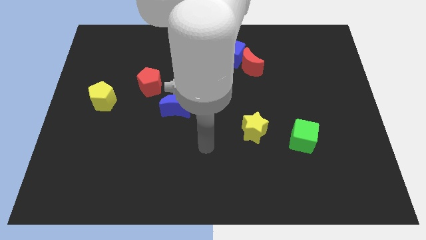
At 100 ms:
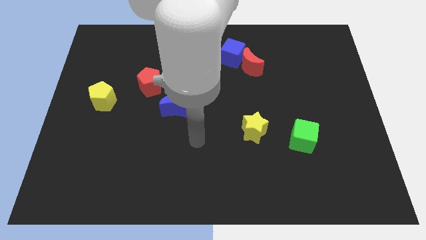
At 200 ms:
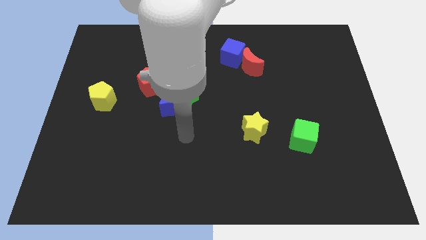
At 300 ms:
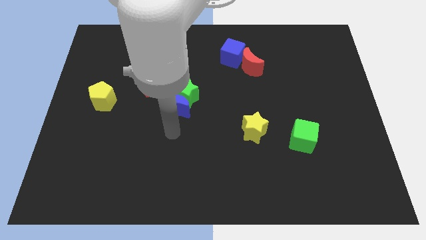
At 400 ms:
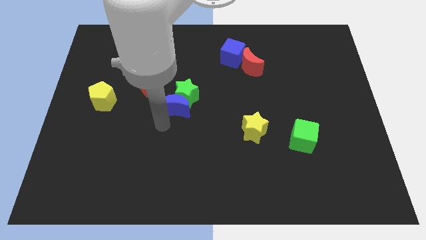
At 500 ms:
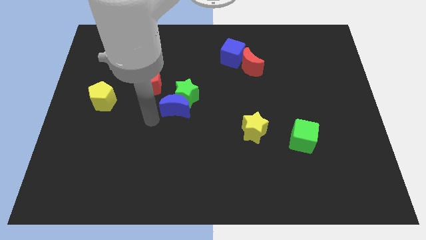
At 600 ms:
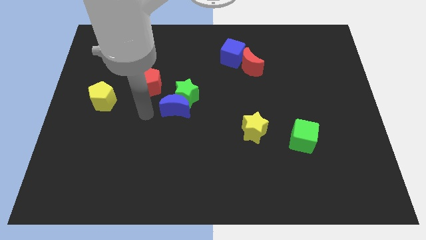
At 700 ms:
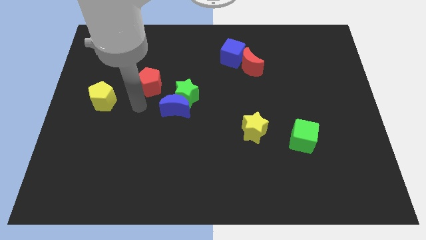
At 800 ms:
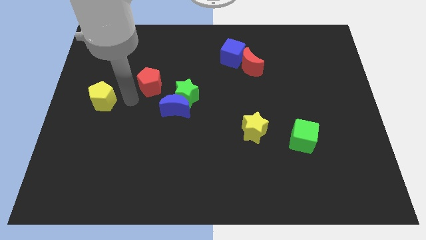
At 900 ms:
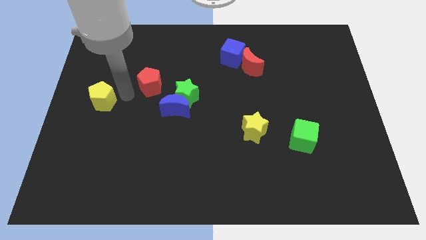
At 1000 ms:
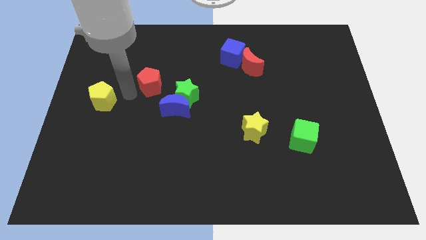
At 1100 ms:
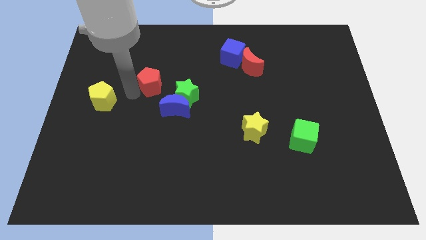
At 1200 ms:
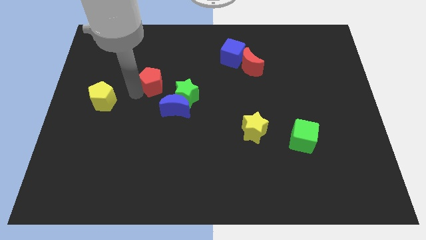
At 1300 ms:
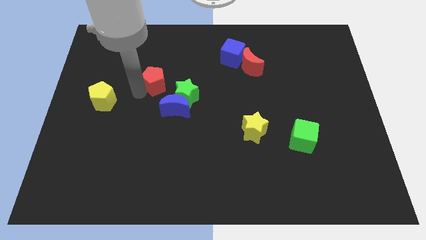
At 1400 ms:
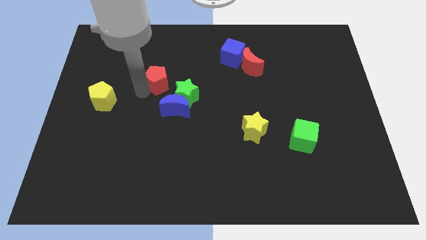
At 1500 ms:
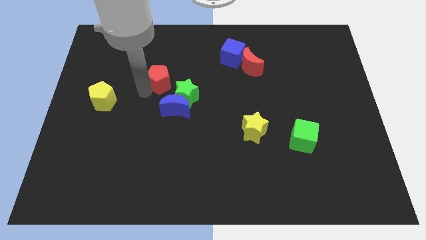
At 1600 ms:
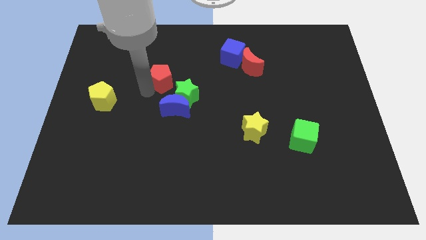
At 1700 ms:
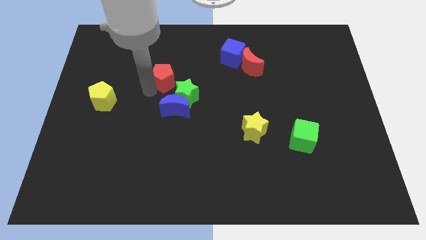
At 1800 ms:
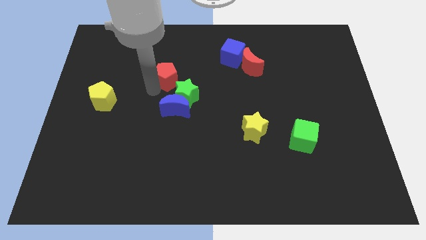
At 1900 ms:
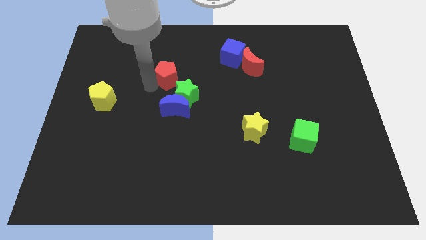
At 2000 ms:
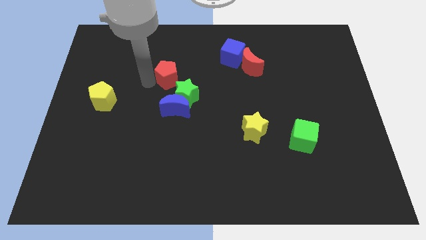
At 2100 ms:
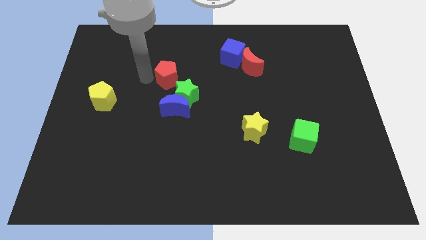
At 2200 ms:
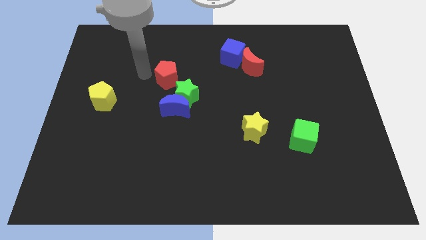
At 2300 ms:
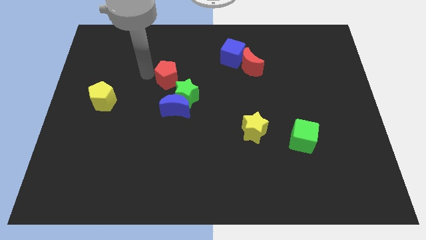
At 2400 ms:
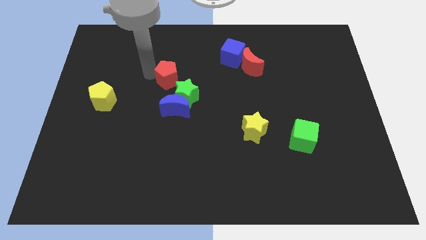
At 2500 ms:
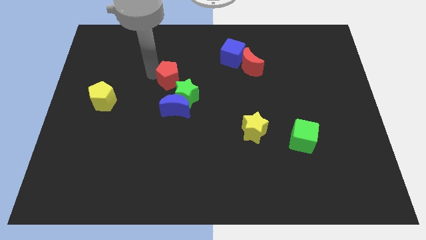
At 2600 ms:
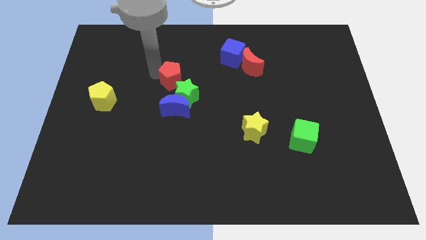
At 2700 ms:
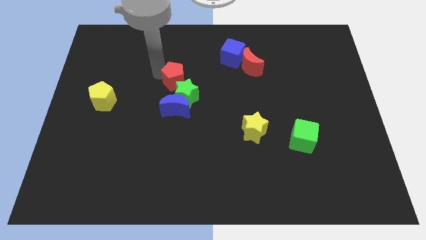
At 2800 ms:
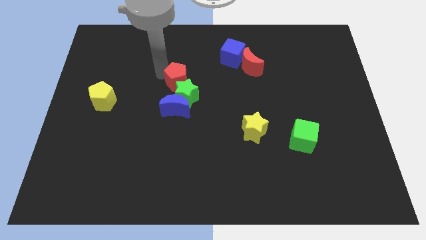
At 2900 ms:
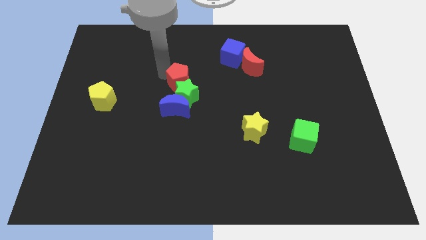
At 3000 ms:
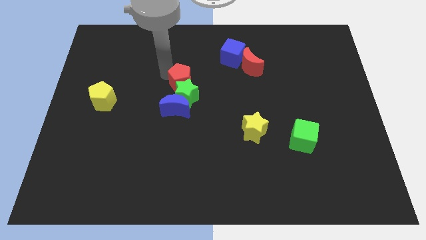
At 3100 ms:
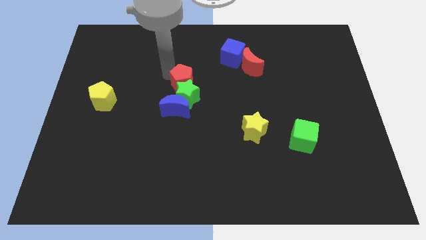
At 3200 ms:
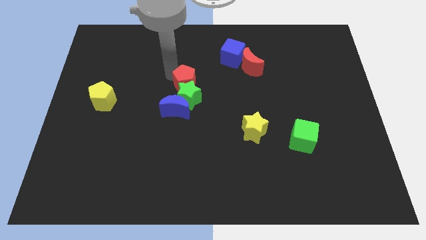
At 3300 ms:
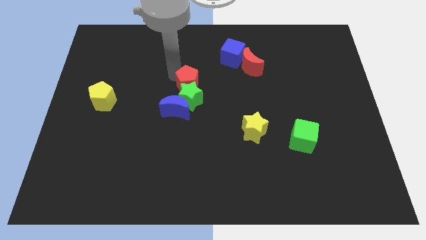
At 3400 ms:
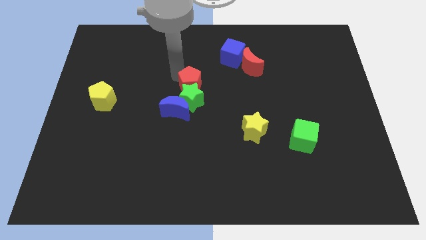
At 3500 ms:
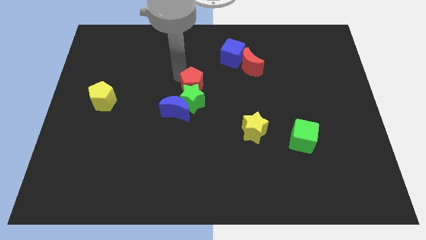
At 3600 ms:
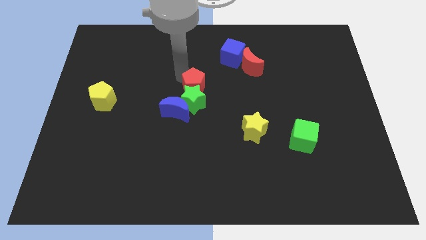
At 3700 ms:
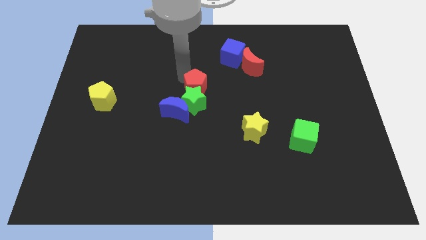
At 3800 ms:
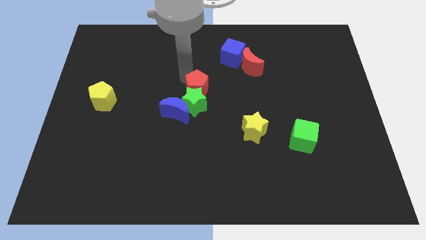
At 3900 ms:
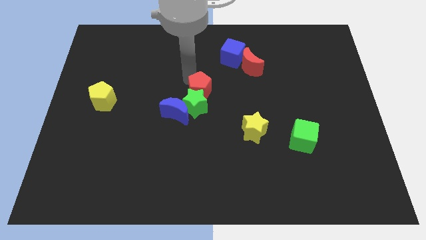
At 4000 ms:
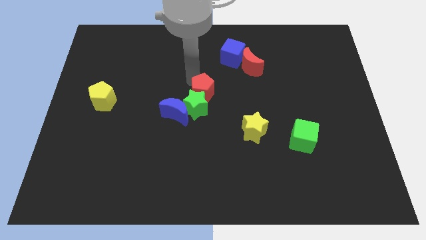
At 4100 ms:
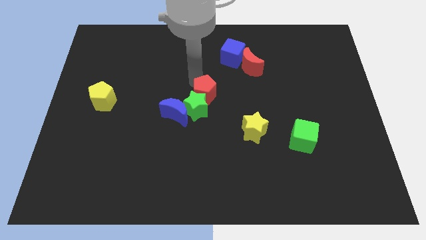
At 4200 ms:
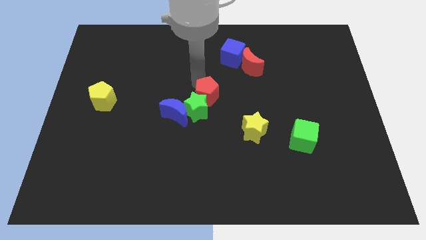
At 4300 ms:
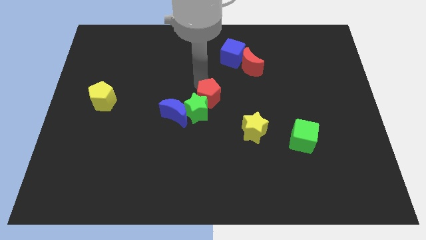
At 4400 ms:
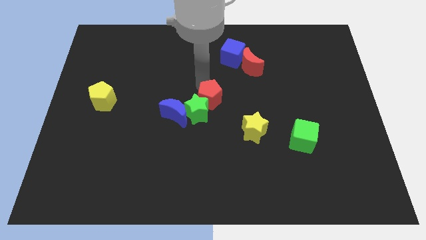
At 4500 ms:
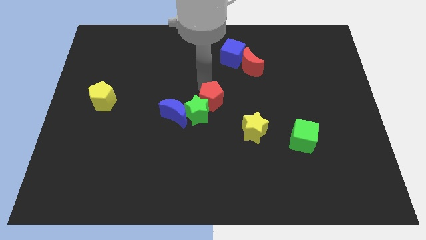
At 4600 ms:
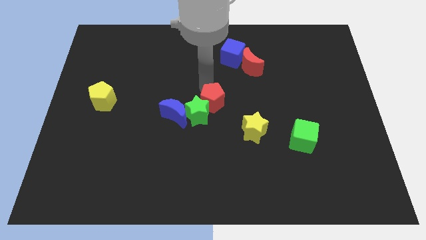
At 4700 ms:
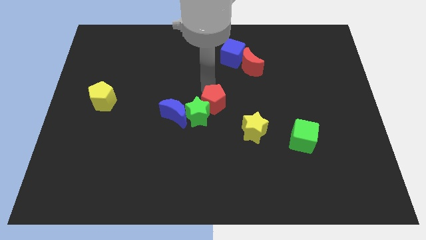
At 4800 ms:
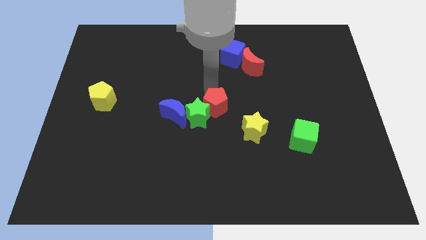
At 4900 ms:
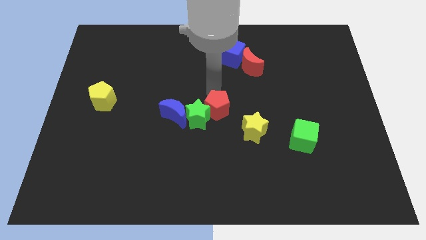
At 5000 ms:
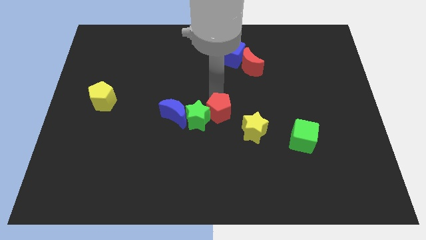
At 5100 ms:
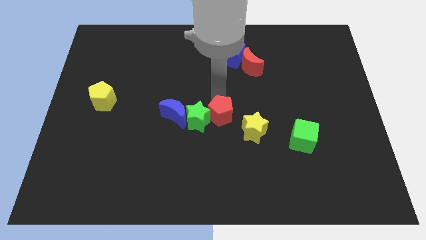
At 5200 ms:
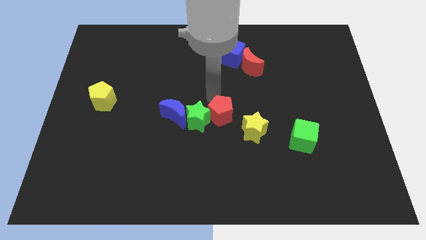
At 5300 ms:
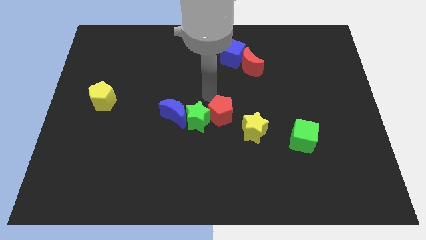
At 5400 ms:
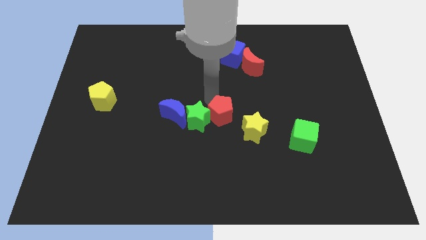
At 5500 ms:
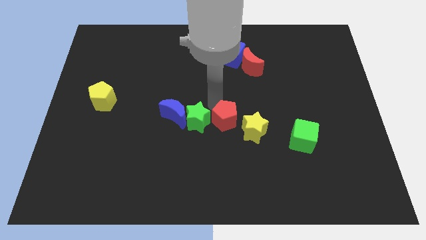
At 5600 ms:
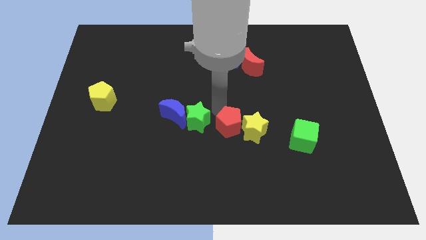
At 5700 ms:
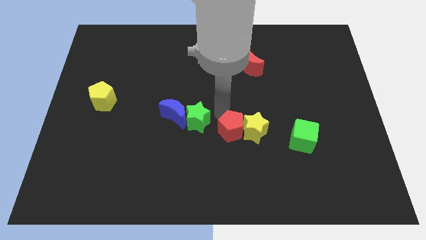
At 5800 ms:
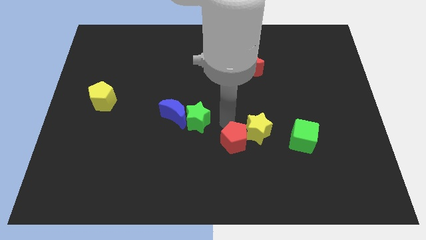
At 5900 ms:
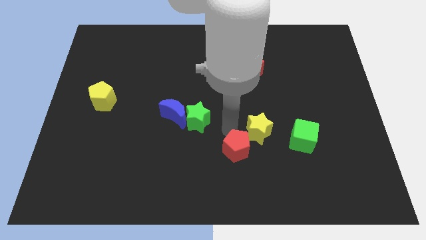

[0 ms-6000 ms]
move the red pentagon below the yellow star

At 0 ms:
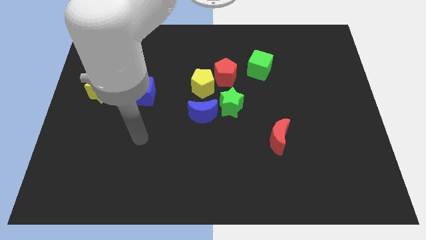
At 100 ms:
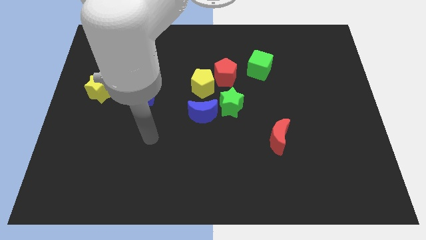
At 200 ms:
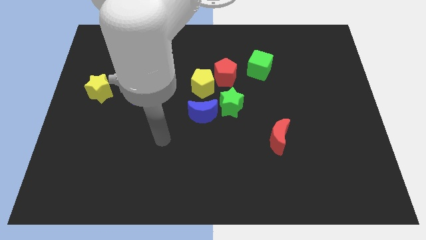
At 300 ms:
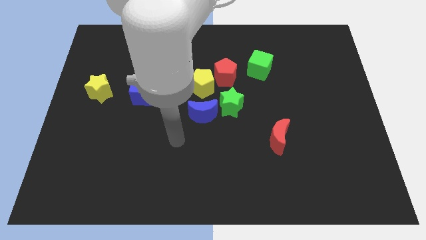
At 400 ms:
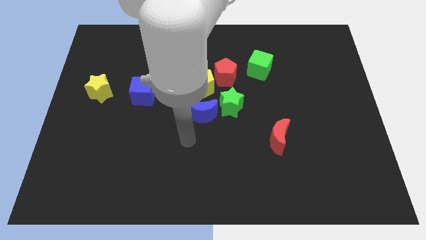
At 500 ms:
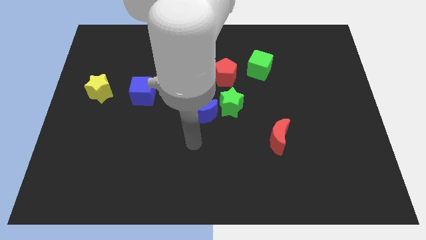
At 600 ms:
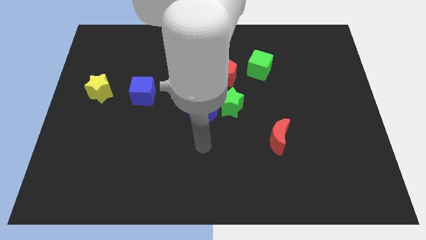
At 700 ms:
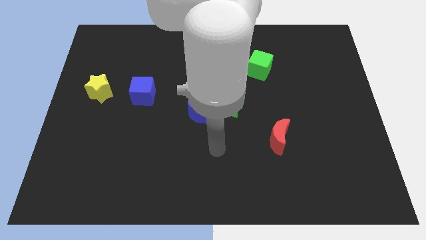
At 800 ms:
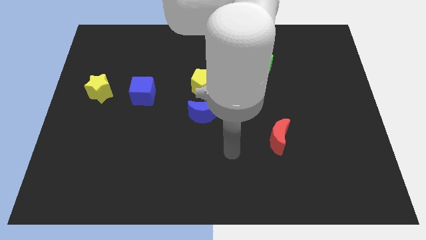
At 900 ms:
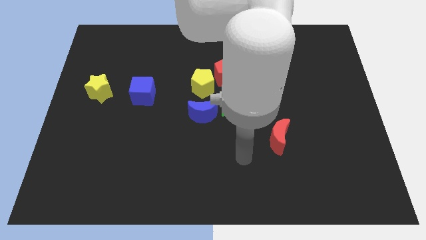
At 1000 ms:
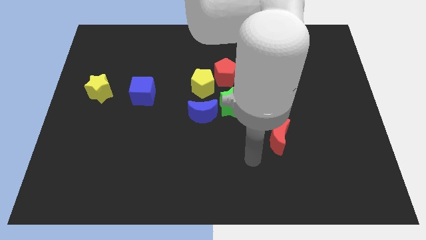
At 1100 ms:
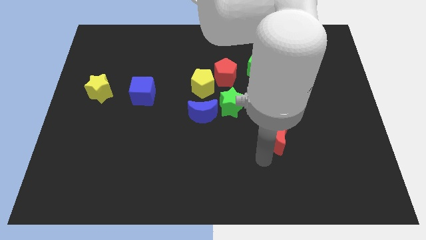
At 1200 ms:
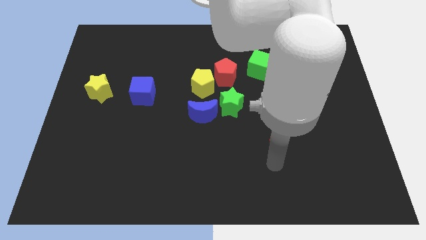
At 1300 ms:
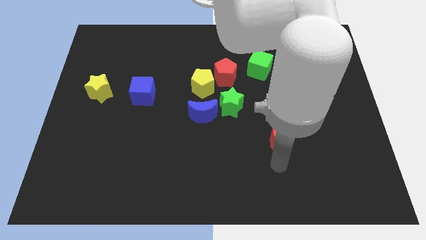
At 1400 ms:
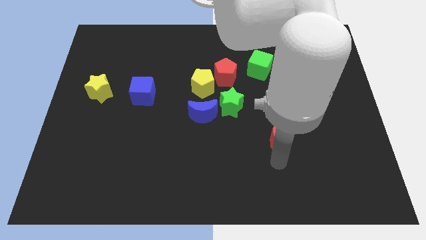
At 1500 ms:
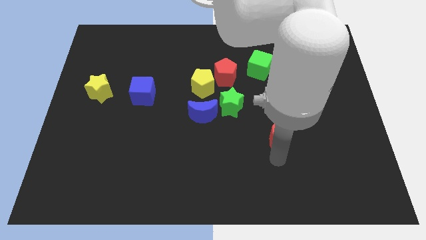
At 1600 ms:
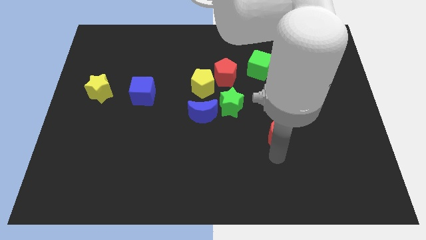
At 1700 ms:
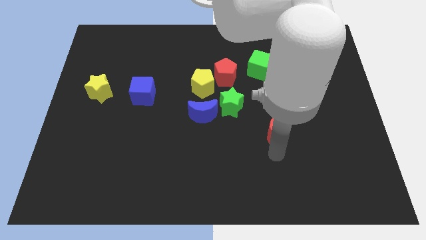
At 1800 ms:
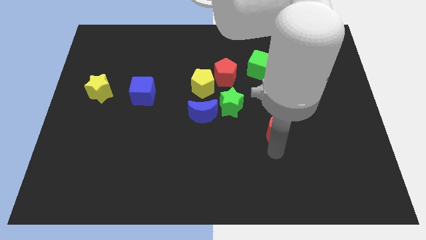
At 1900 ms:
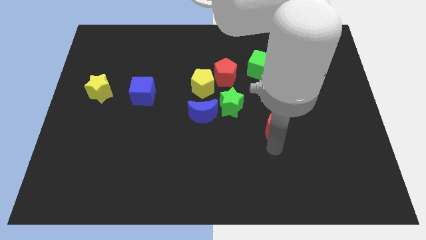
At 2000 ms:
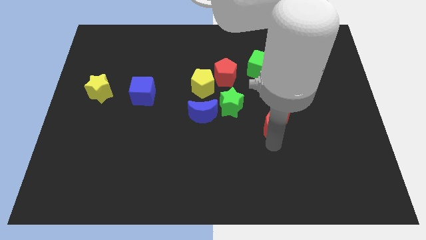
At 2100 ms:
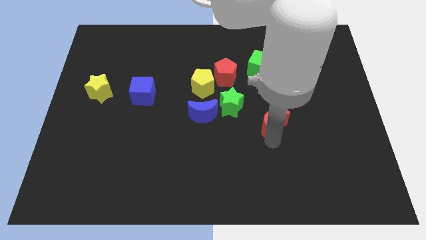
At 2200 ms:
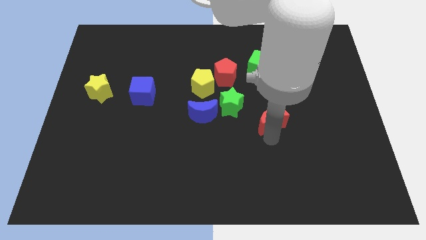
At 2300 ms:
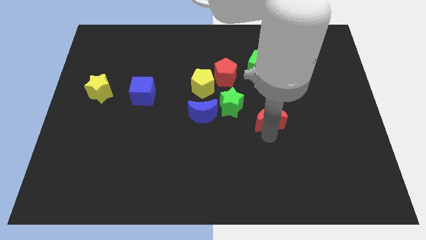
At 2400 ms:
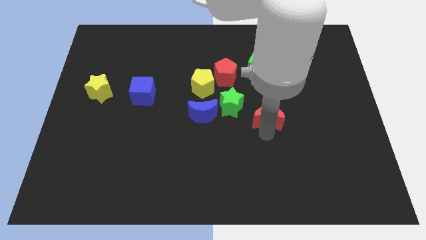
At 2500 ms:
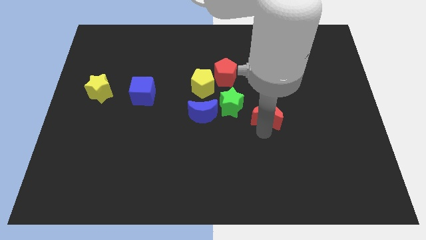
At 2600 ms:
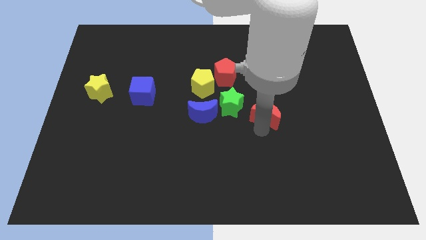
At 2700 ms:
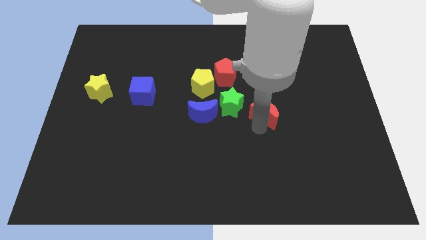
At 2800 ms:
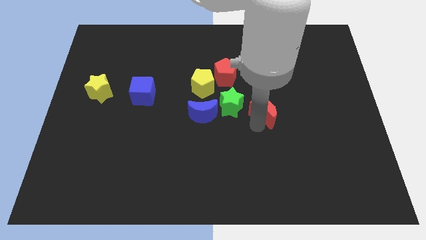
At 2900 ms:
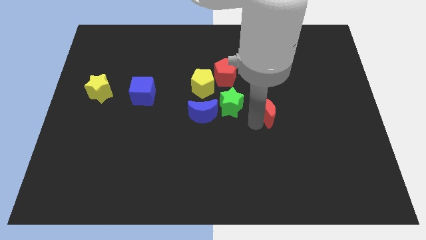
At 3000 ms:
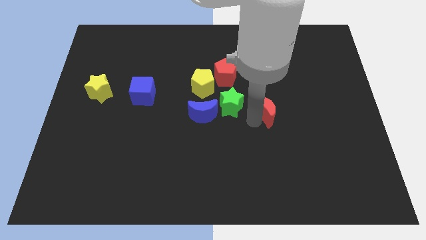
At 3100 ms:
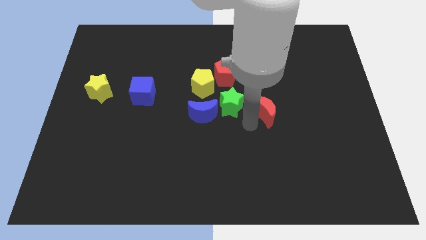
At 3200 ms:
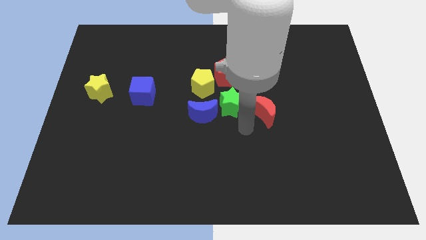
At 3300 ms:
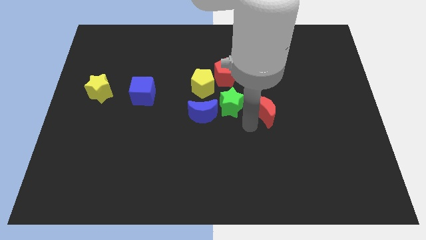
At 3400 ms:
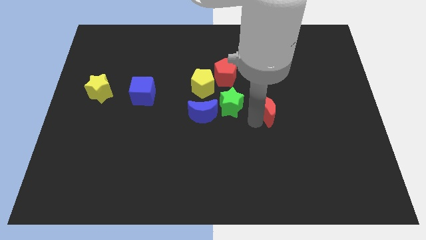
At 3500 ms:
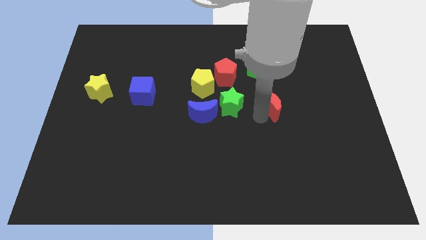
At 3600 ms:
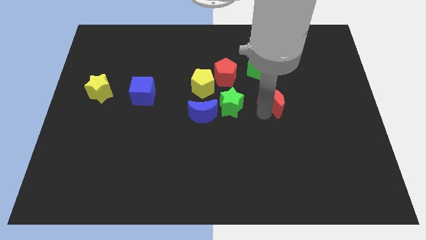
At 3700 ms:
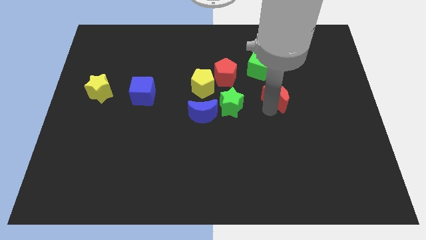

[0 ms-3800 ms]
move the red moon to the bottom right side of the green cube
